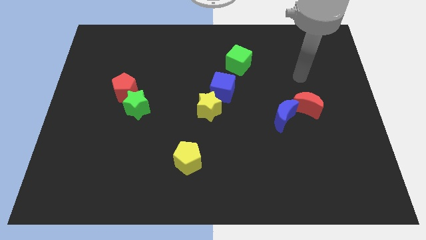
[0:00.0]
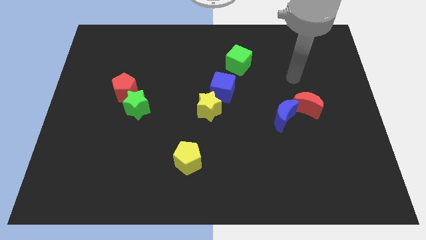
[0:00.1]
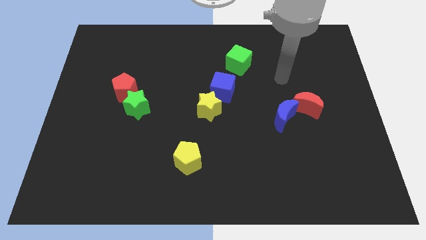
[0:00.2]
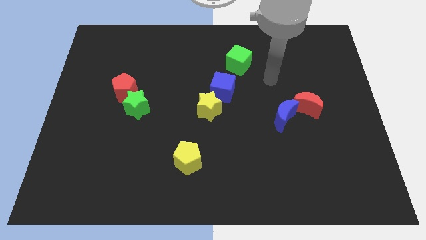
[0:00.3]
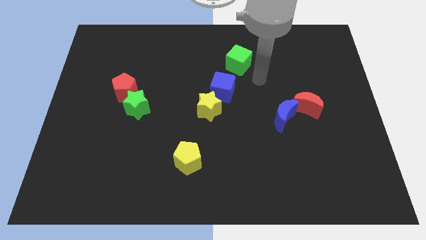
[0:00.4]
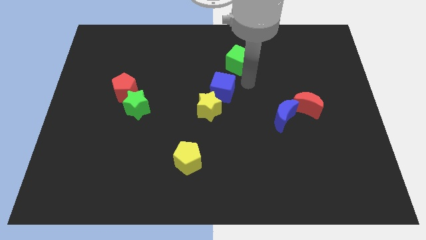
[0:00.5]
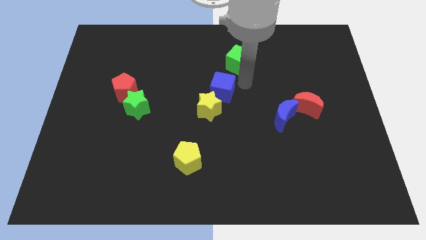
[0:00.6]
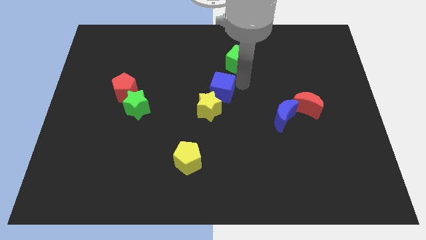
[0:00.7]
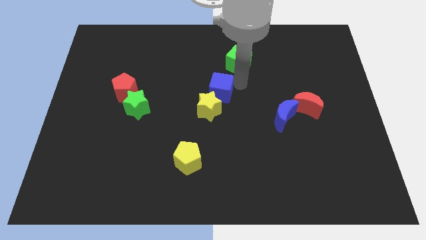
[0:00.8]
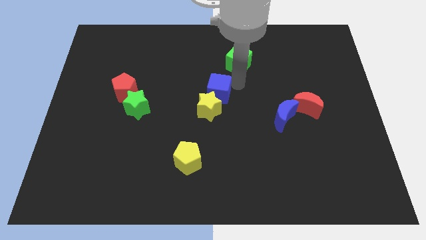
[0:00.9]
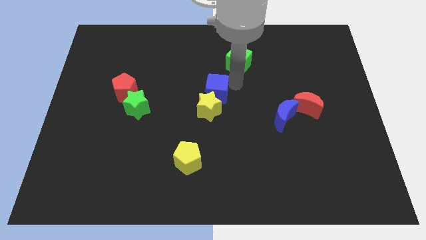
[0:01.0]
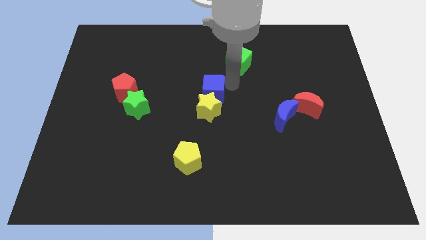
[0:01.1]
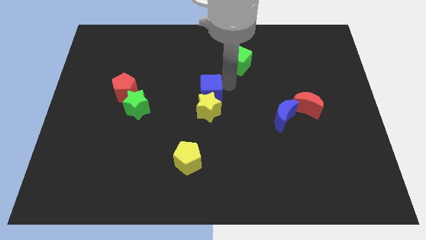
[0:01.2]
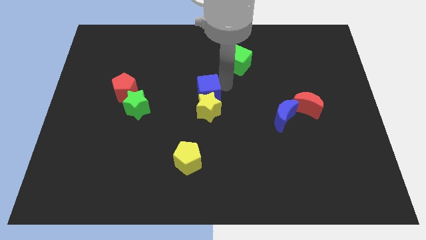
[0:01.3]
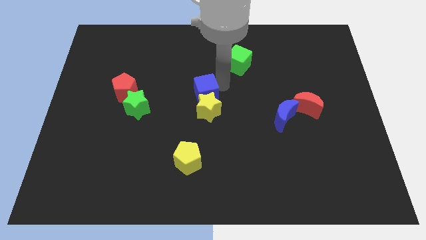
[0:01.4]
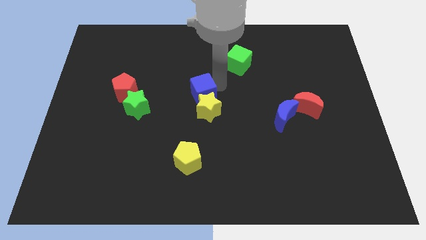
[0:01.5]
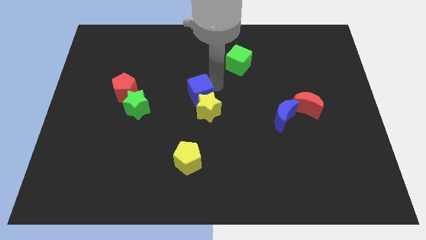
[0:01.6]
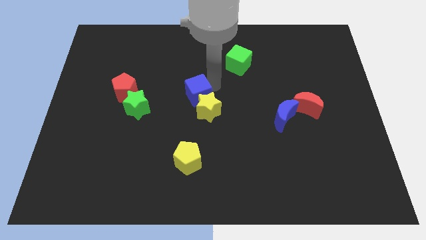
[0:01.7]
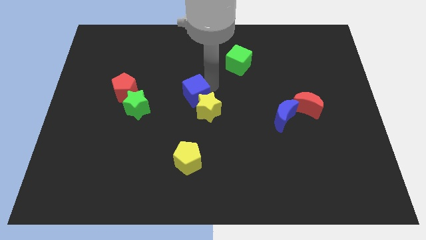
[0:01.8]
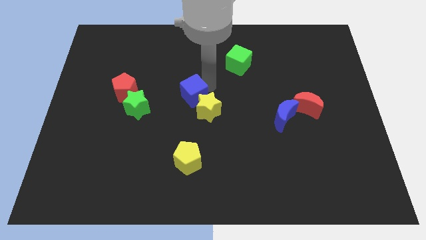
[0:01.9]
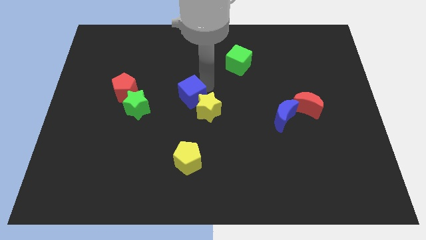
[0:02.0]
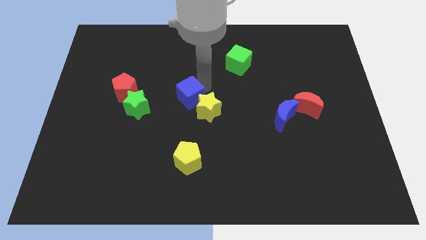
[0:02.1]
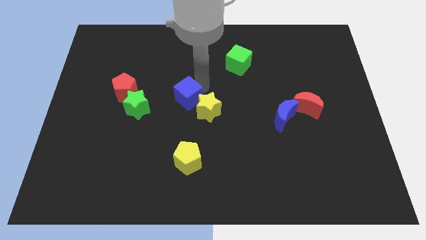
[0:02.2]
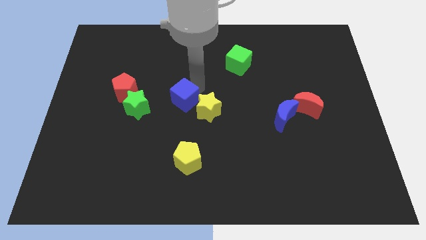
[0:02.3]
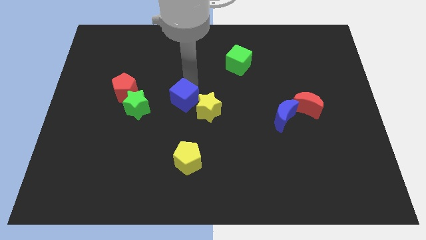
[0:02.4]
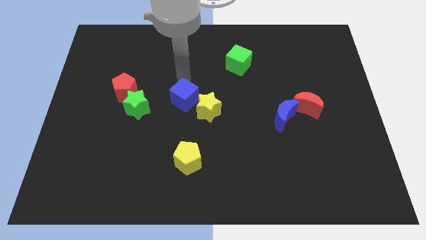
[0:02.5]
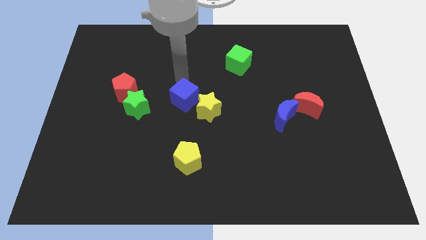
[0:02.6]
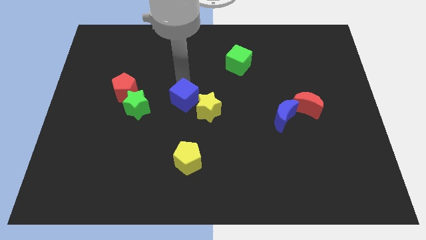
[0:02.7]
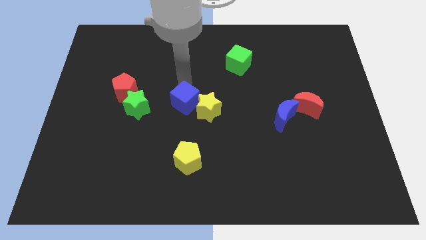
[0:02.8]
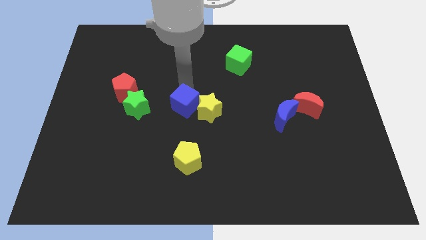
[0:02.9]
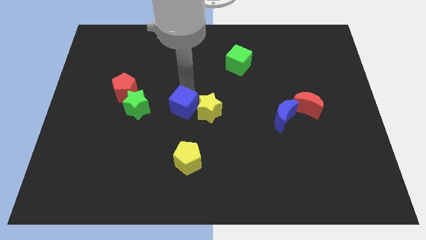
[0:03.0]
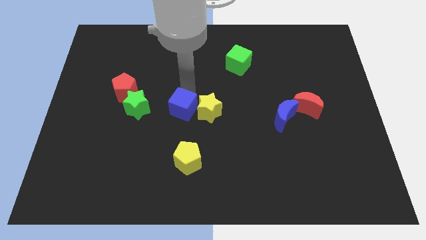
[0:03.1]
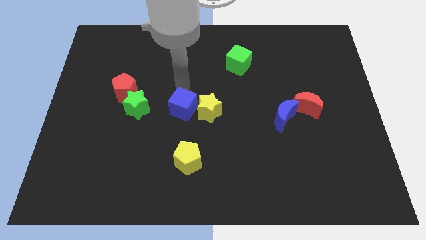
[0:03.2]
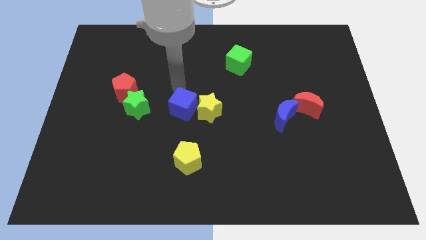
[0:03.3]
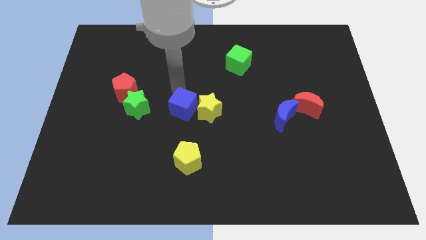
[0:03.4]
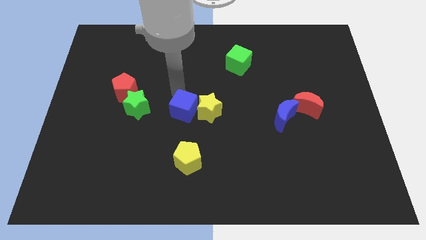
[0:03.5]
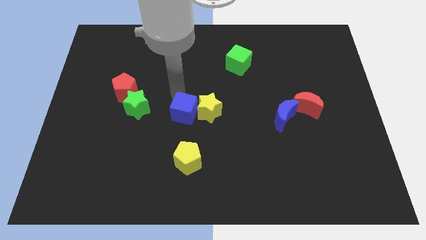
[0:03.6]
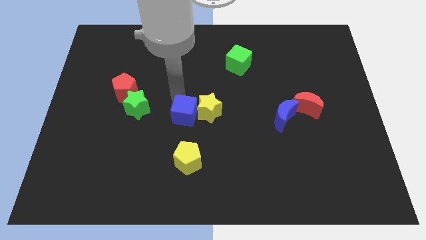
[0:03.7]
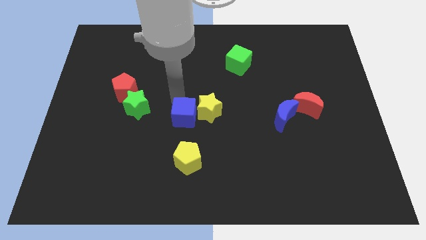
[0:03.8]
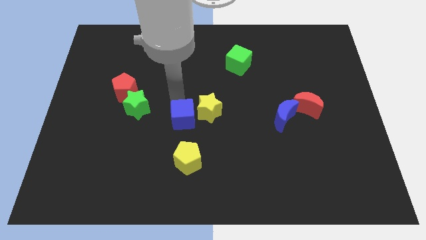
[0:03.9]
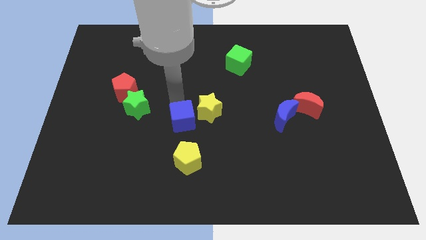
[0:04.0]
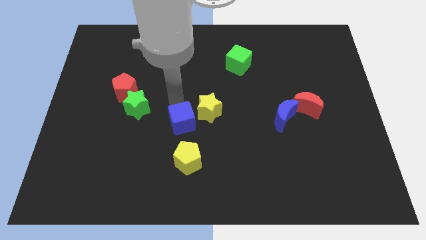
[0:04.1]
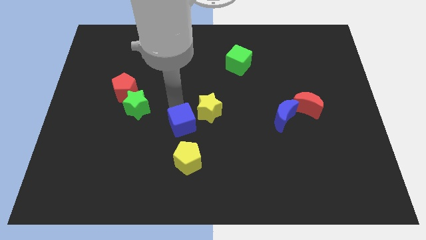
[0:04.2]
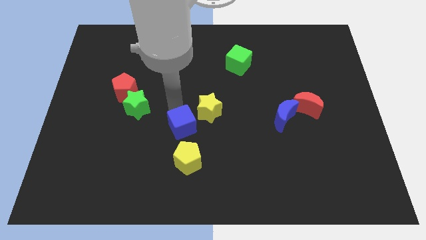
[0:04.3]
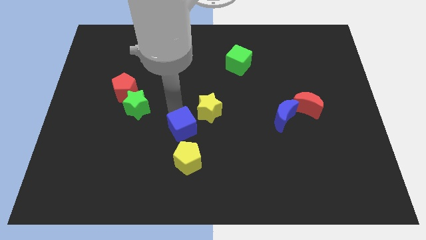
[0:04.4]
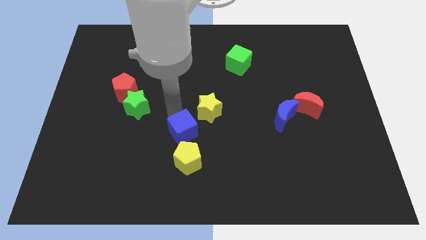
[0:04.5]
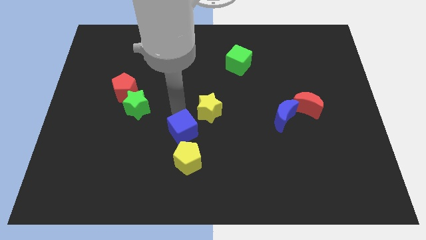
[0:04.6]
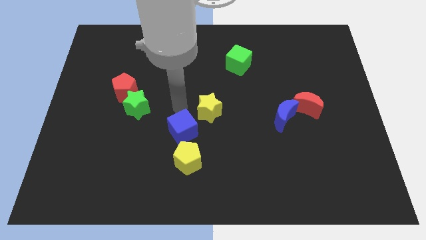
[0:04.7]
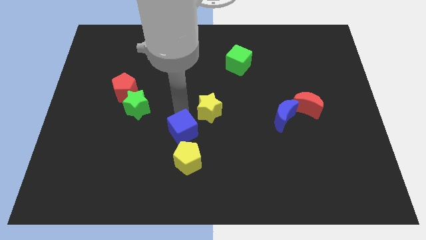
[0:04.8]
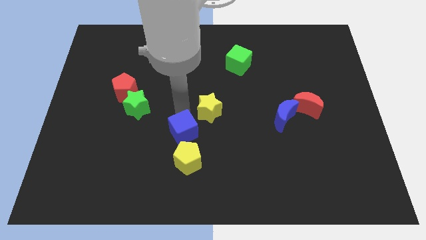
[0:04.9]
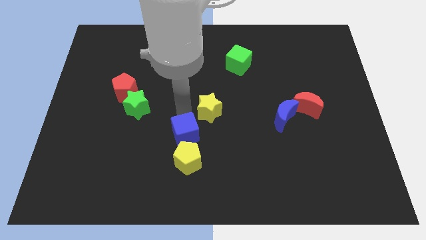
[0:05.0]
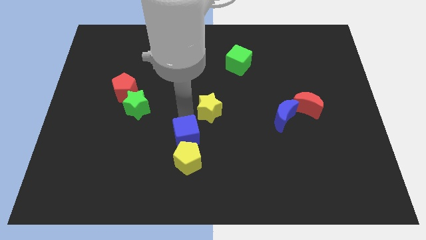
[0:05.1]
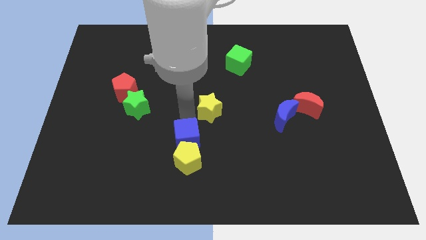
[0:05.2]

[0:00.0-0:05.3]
push the blue cube to the yellow pentagon

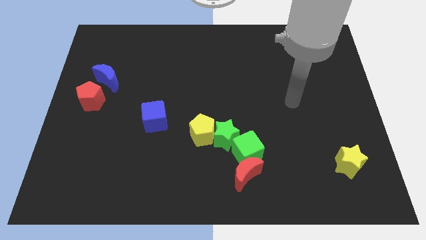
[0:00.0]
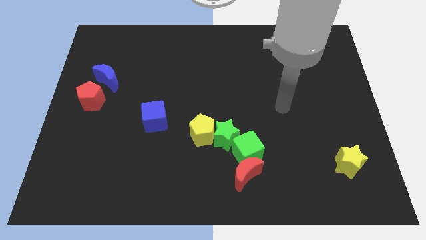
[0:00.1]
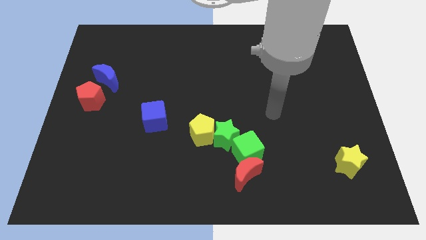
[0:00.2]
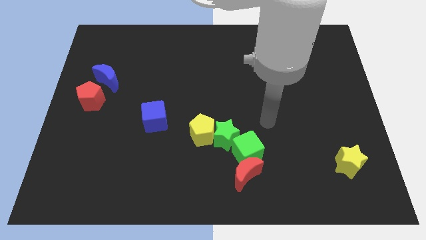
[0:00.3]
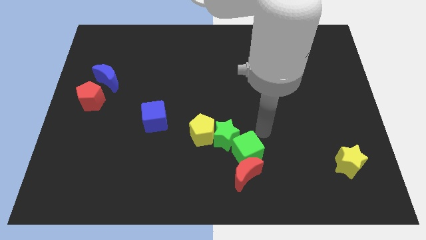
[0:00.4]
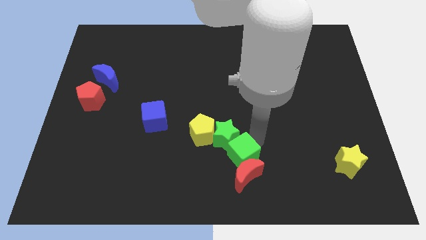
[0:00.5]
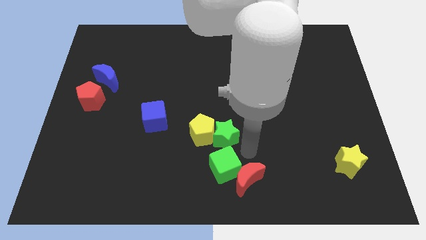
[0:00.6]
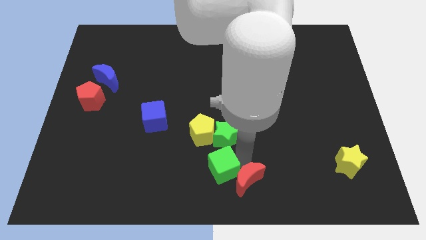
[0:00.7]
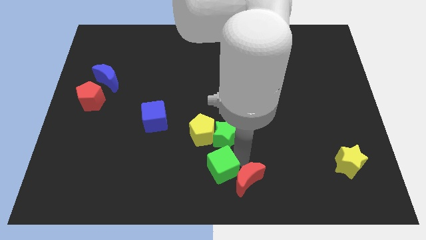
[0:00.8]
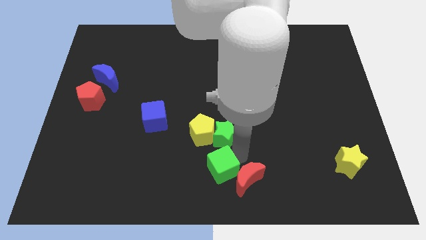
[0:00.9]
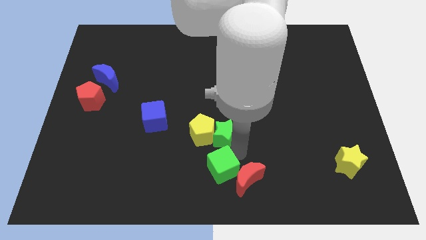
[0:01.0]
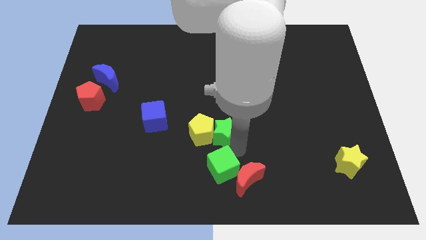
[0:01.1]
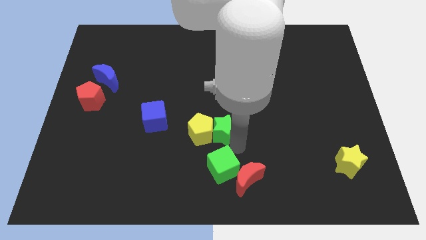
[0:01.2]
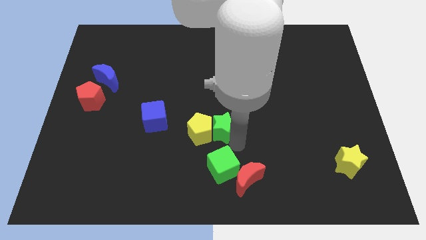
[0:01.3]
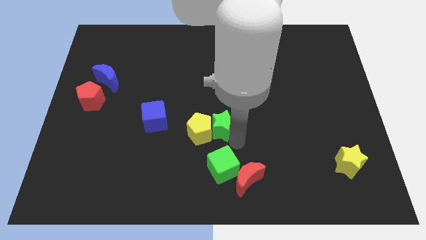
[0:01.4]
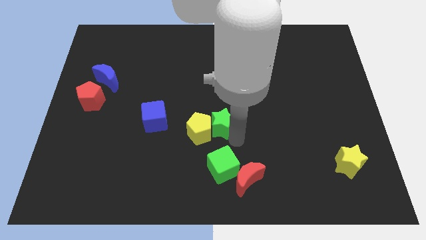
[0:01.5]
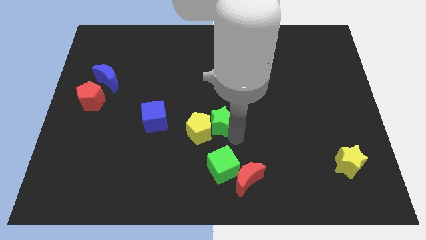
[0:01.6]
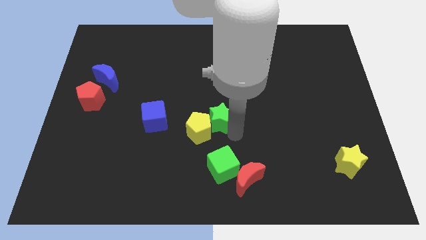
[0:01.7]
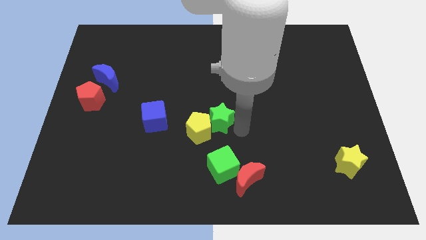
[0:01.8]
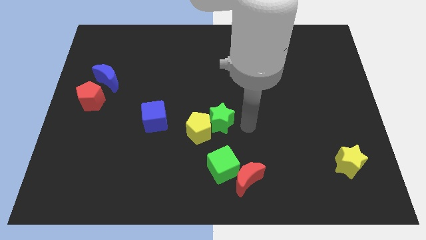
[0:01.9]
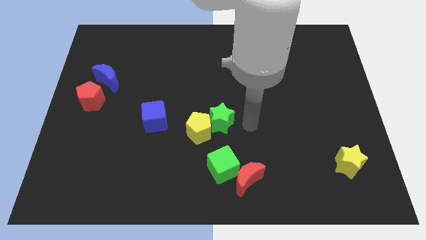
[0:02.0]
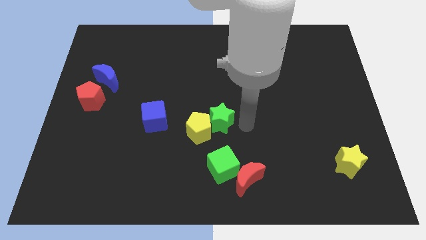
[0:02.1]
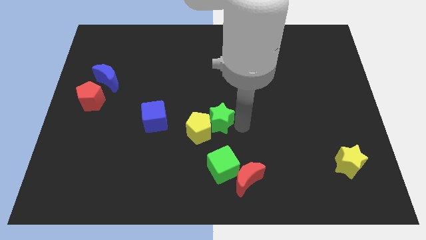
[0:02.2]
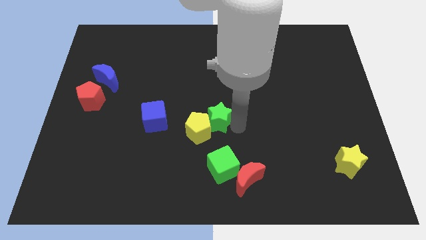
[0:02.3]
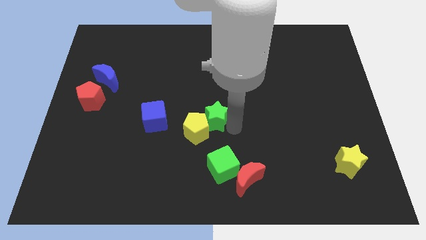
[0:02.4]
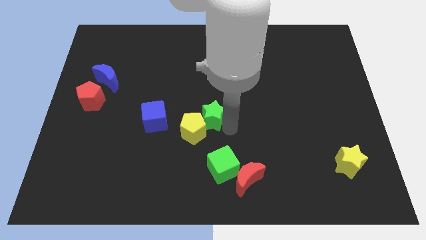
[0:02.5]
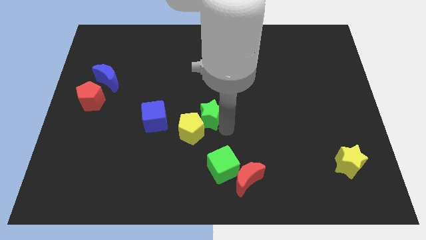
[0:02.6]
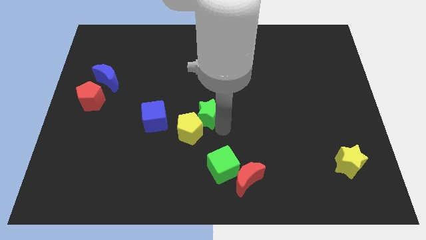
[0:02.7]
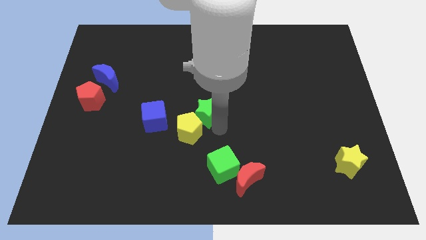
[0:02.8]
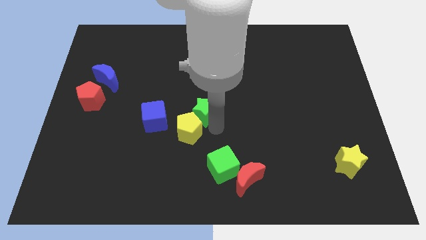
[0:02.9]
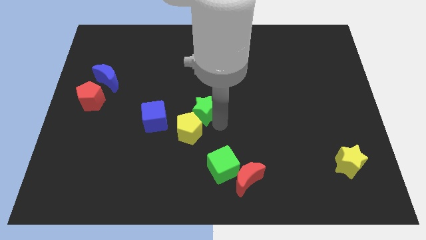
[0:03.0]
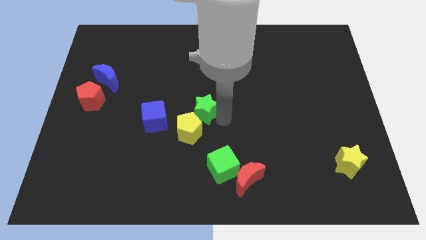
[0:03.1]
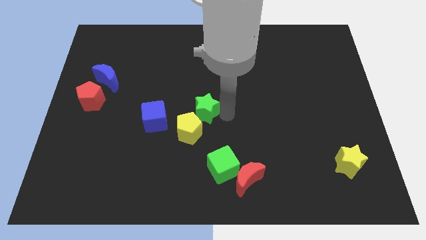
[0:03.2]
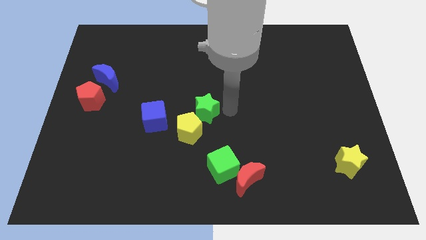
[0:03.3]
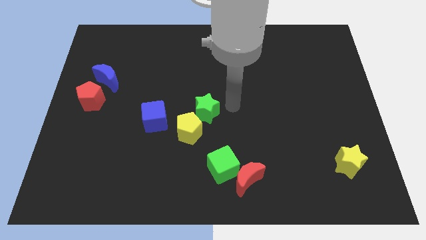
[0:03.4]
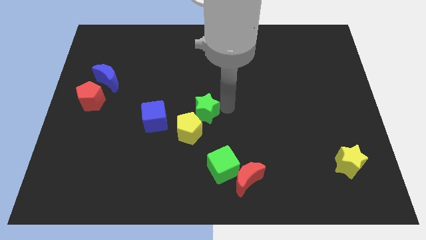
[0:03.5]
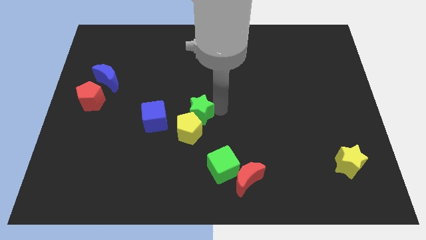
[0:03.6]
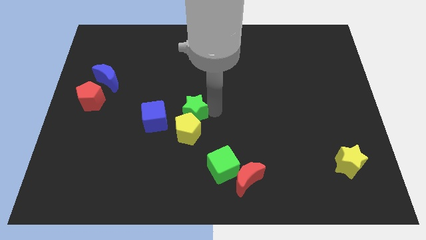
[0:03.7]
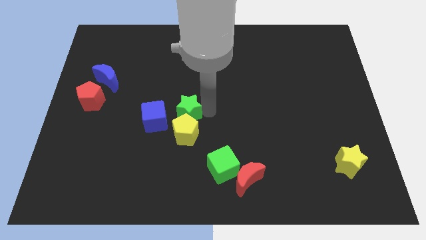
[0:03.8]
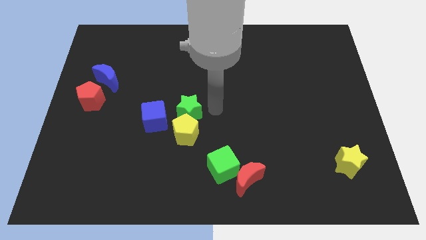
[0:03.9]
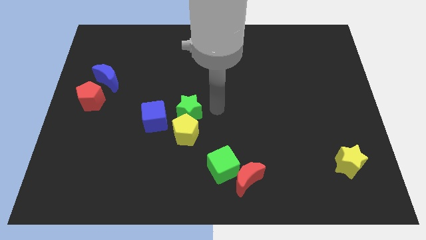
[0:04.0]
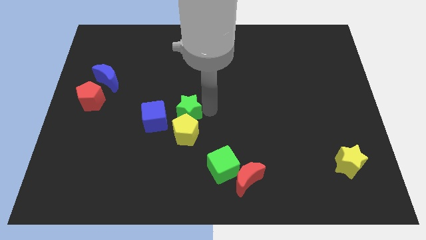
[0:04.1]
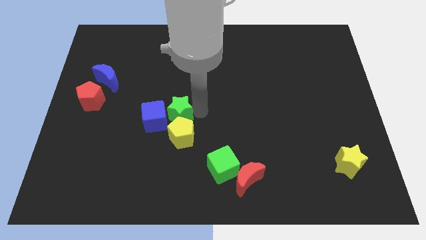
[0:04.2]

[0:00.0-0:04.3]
move the green star close to the blue cube
